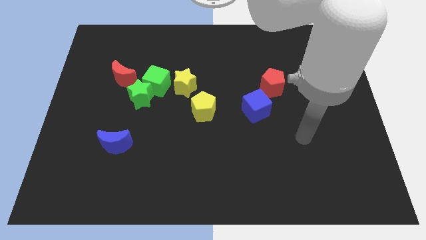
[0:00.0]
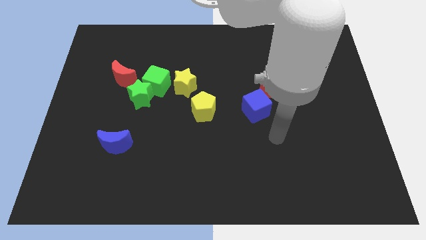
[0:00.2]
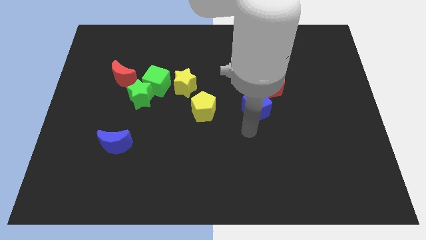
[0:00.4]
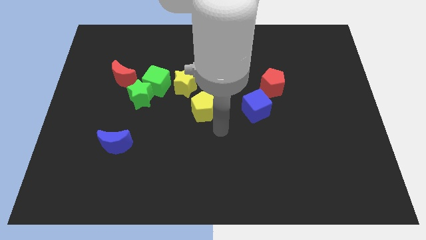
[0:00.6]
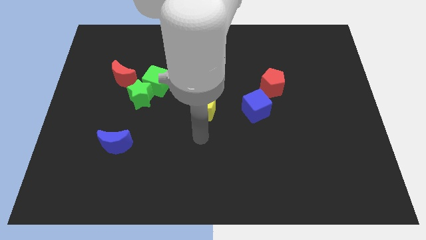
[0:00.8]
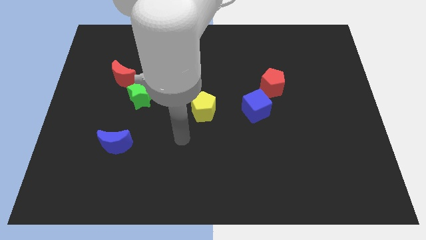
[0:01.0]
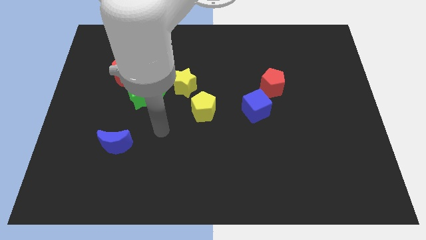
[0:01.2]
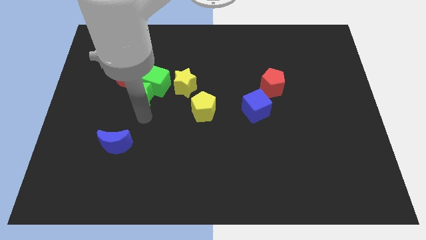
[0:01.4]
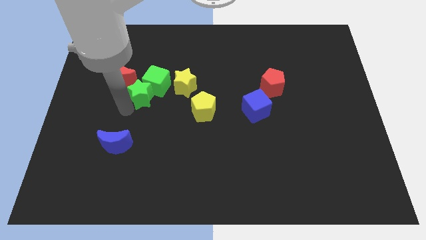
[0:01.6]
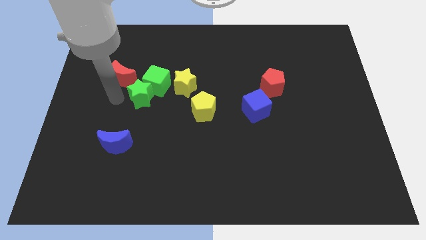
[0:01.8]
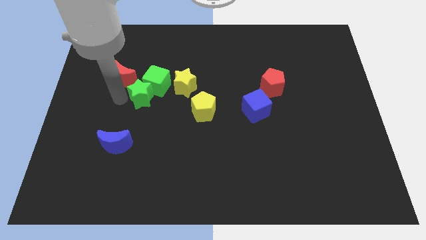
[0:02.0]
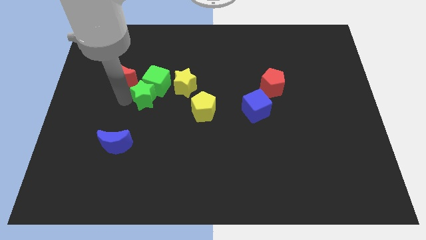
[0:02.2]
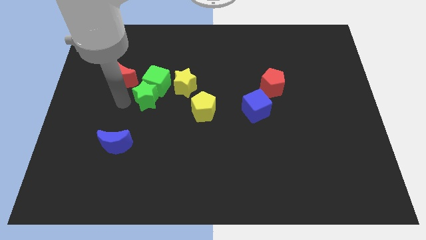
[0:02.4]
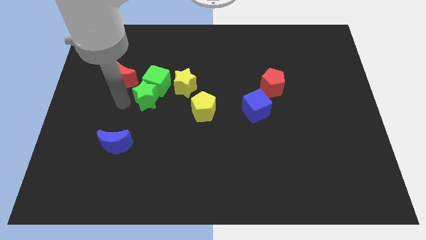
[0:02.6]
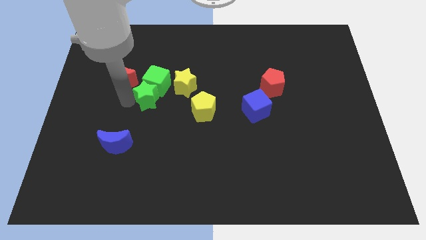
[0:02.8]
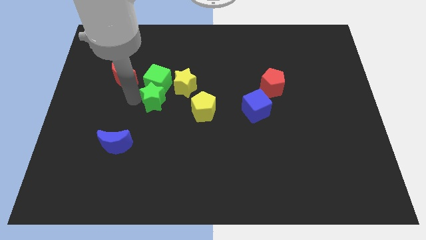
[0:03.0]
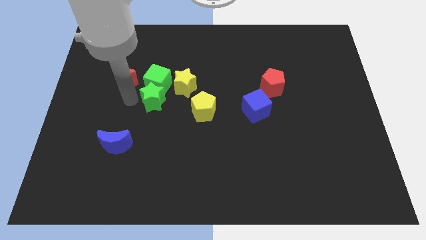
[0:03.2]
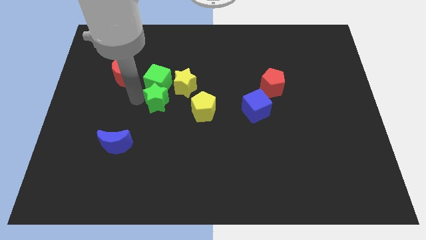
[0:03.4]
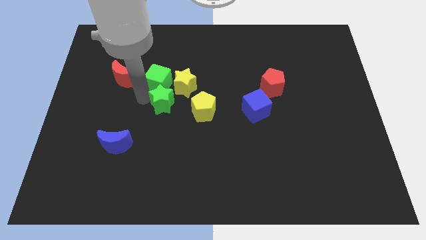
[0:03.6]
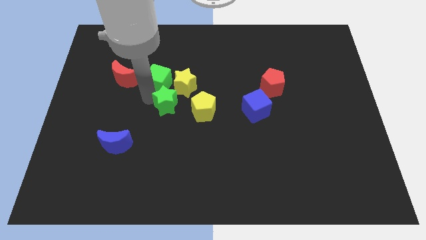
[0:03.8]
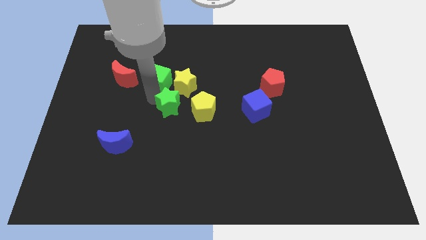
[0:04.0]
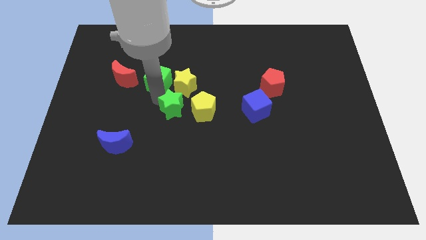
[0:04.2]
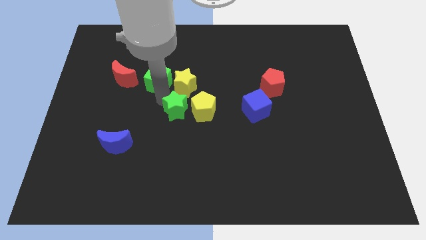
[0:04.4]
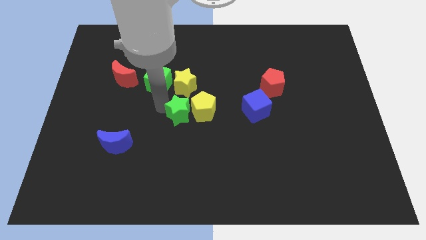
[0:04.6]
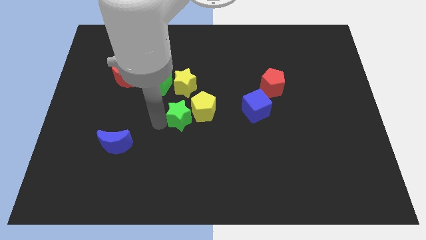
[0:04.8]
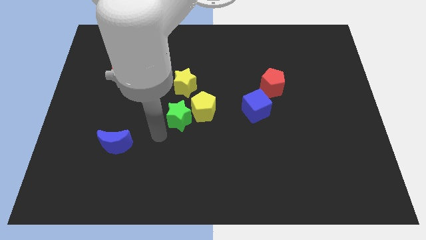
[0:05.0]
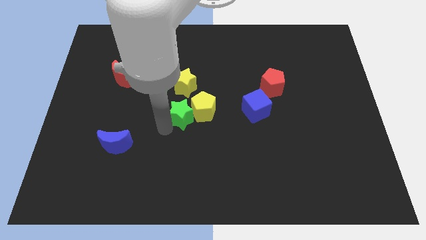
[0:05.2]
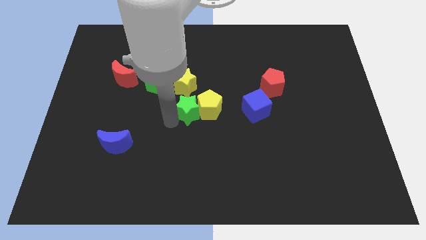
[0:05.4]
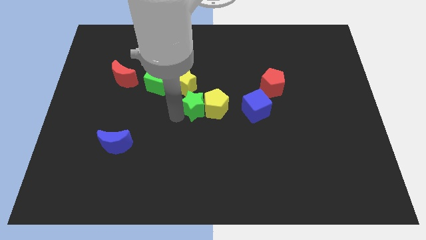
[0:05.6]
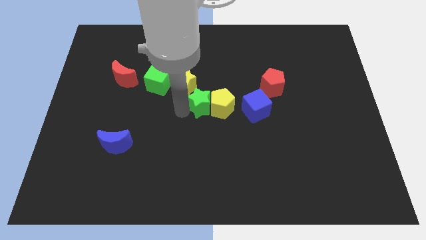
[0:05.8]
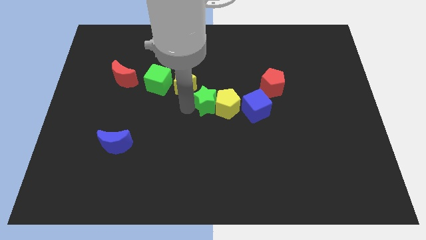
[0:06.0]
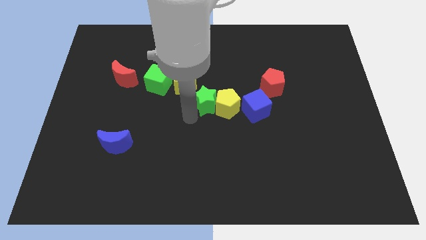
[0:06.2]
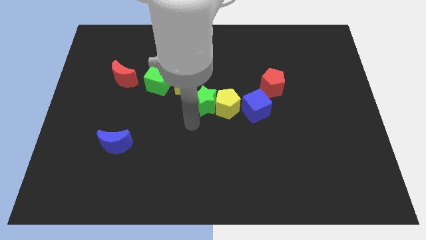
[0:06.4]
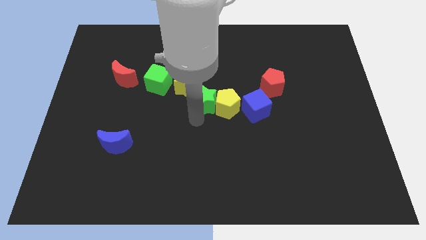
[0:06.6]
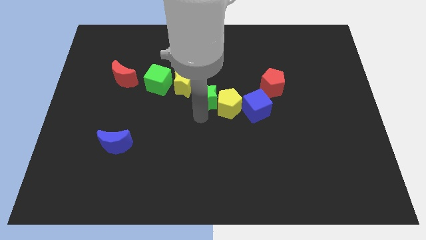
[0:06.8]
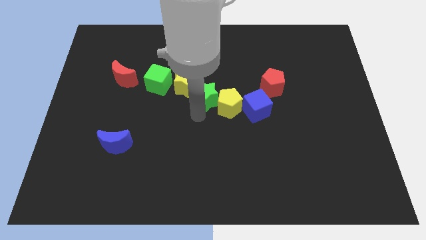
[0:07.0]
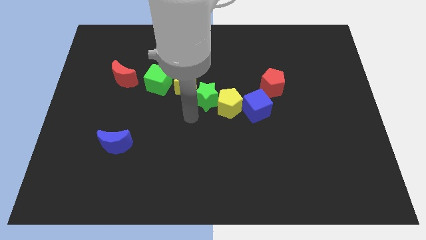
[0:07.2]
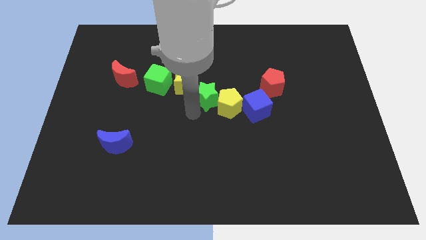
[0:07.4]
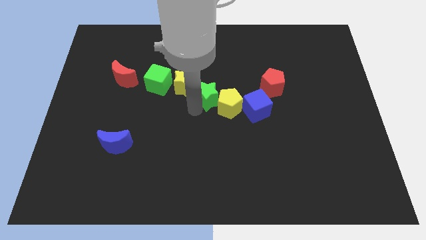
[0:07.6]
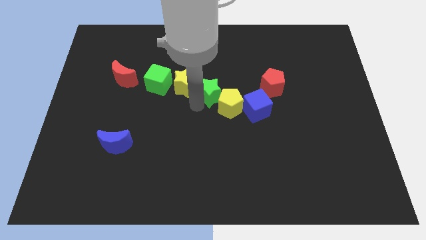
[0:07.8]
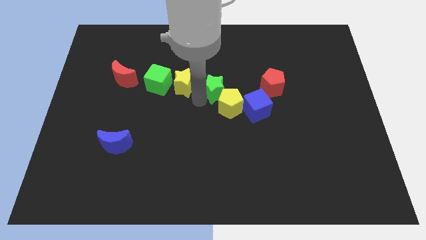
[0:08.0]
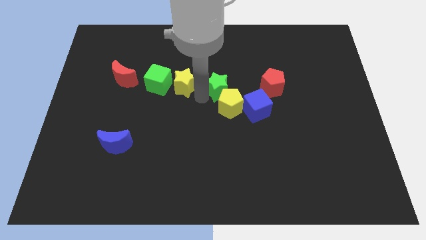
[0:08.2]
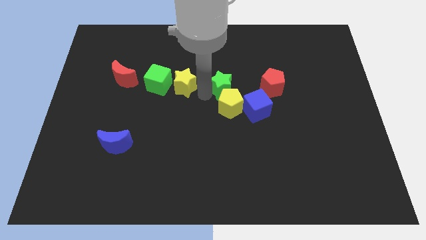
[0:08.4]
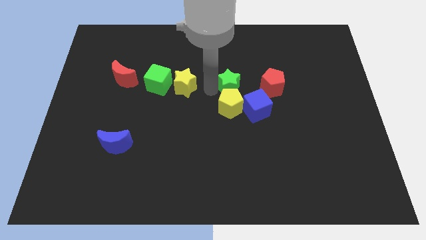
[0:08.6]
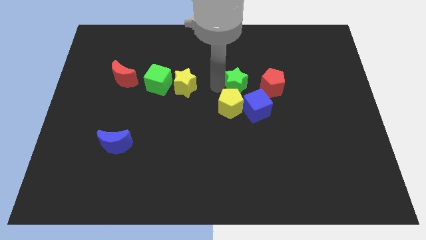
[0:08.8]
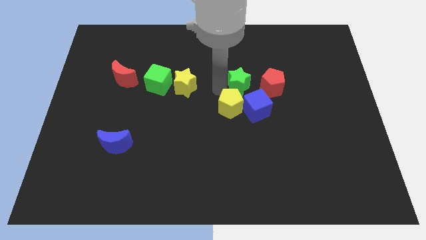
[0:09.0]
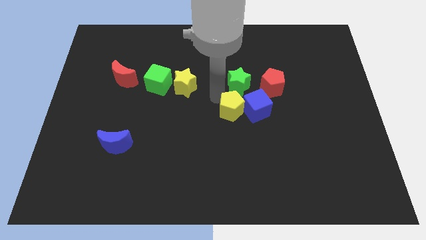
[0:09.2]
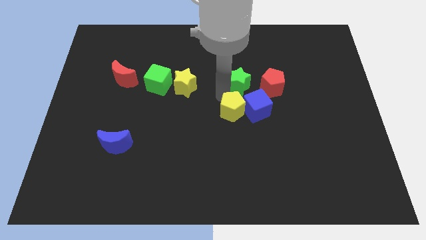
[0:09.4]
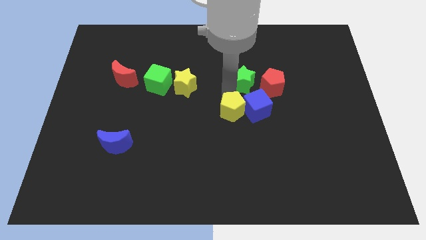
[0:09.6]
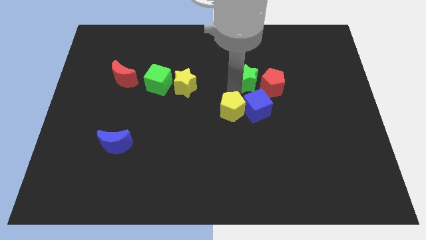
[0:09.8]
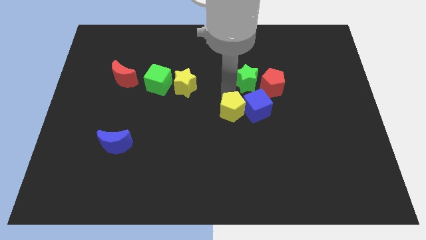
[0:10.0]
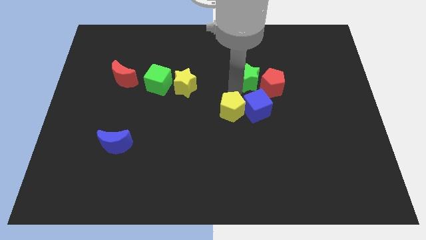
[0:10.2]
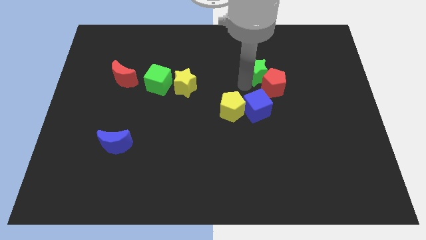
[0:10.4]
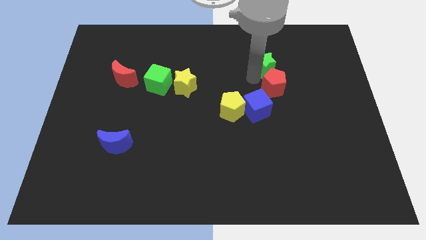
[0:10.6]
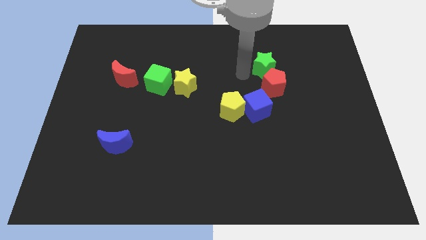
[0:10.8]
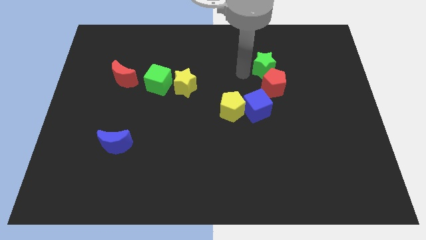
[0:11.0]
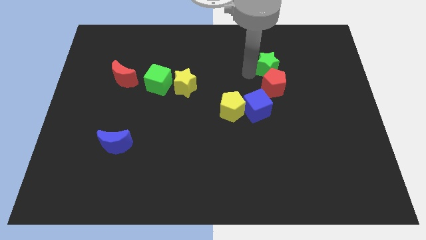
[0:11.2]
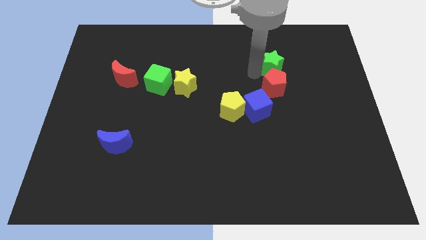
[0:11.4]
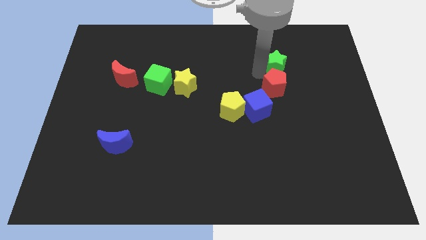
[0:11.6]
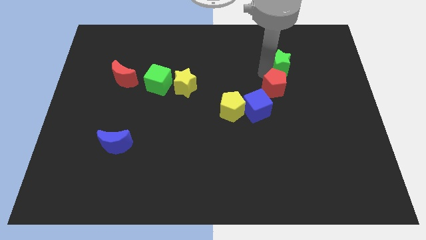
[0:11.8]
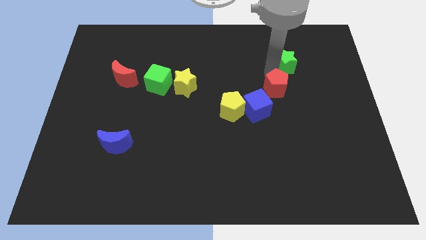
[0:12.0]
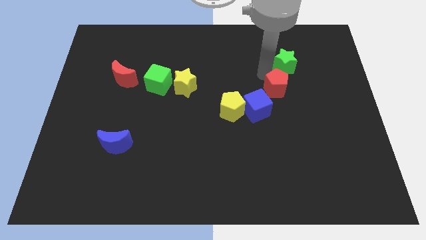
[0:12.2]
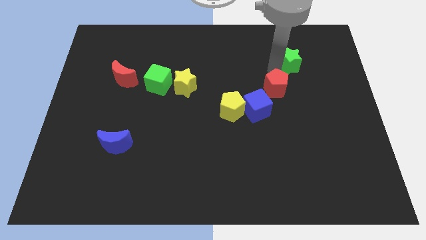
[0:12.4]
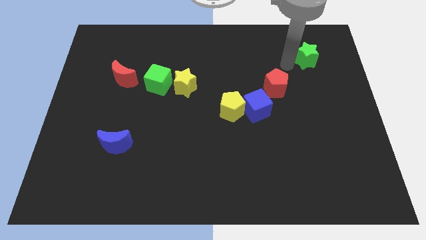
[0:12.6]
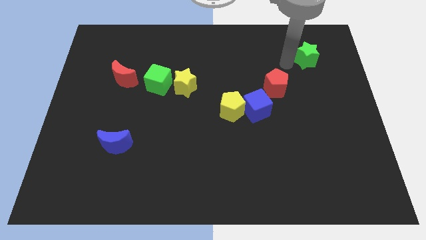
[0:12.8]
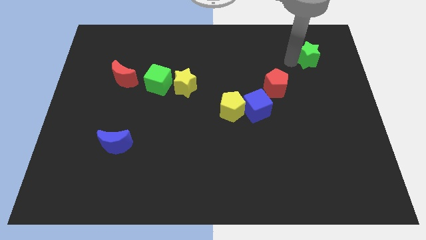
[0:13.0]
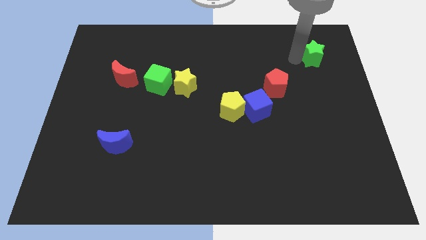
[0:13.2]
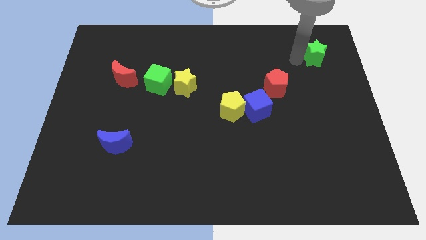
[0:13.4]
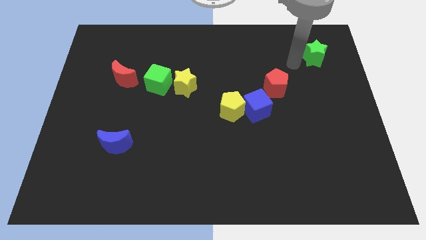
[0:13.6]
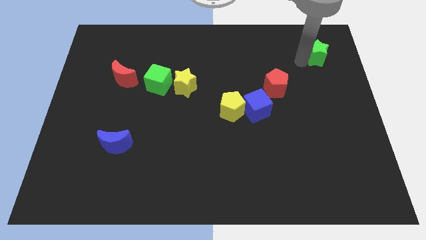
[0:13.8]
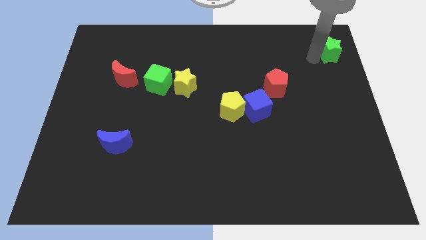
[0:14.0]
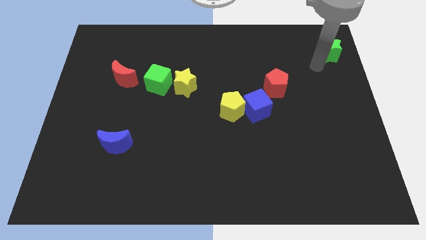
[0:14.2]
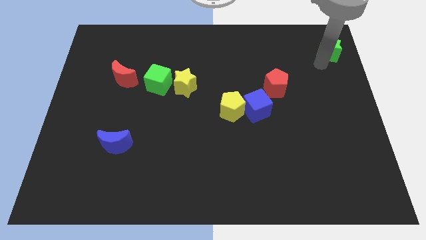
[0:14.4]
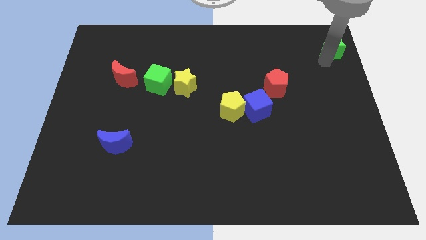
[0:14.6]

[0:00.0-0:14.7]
put the green star to the top right
